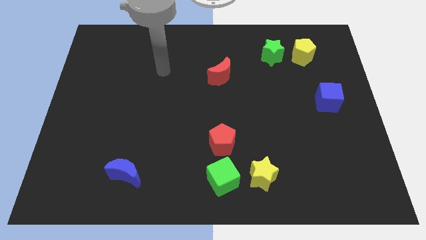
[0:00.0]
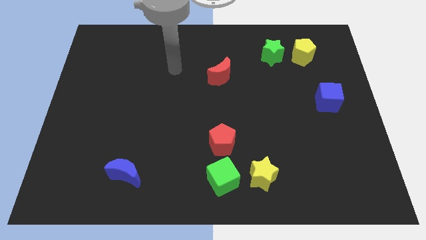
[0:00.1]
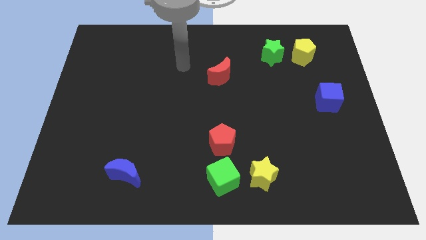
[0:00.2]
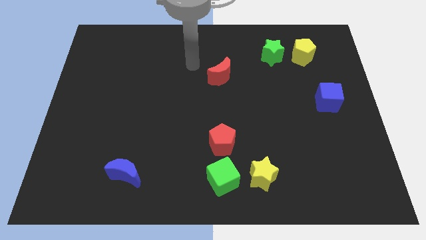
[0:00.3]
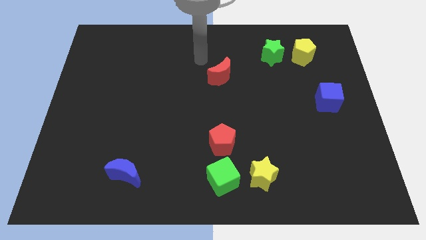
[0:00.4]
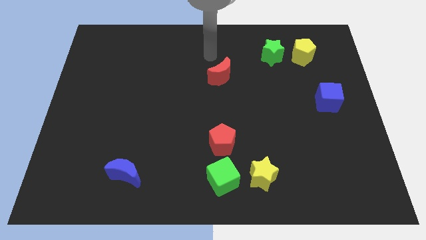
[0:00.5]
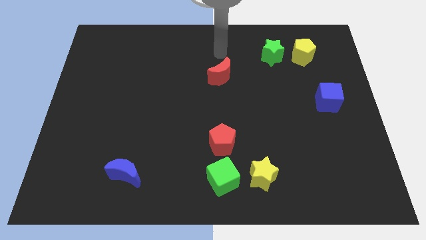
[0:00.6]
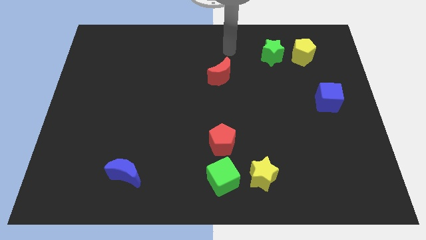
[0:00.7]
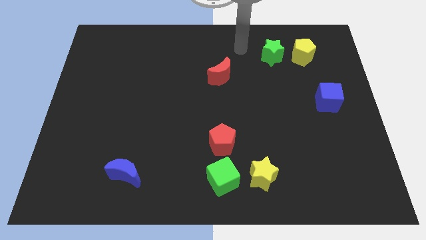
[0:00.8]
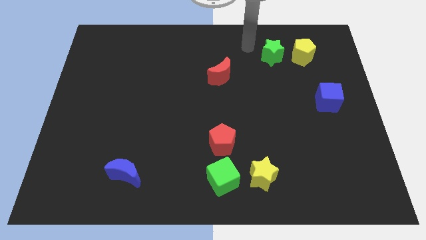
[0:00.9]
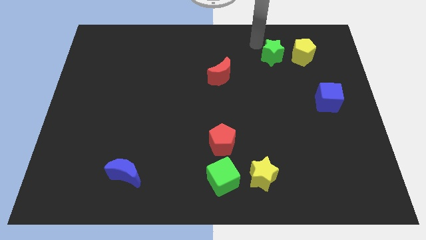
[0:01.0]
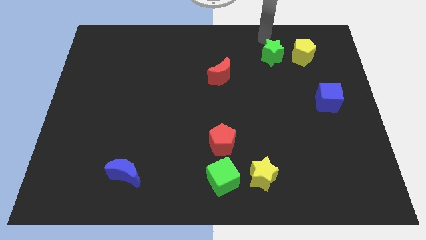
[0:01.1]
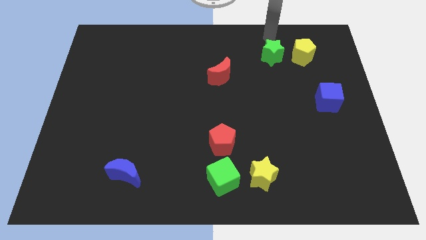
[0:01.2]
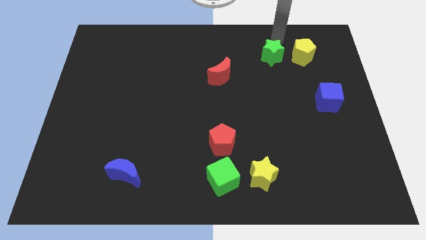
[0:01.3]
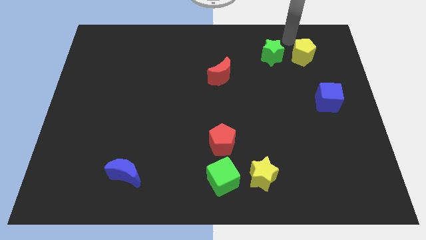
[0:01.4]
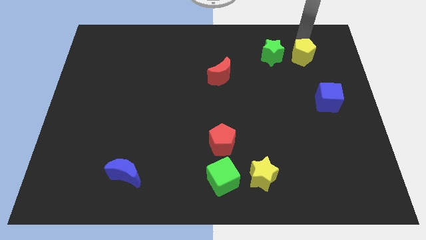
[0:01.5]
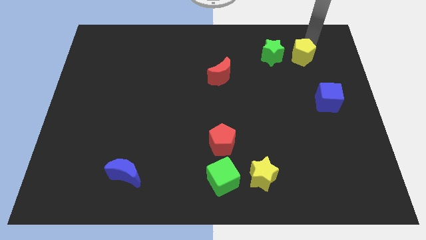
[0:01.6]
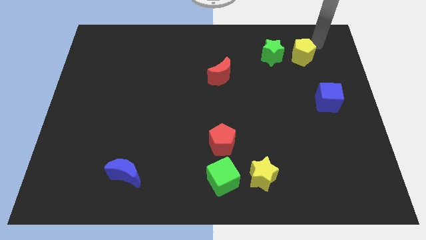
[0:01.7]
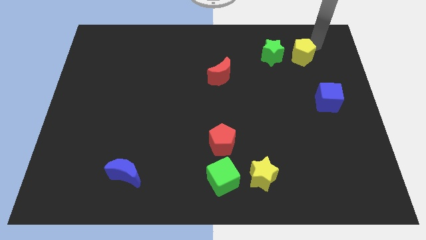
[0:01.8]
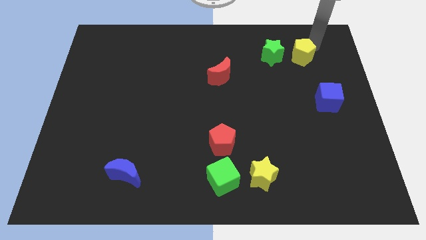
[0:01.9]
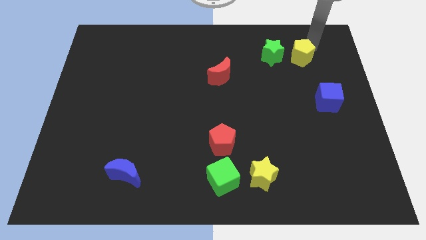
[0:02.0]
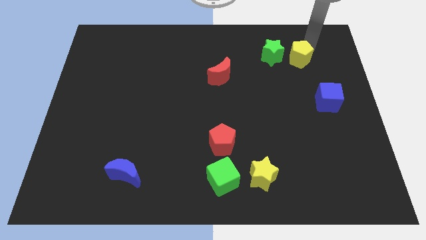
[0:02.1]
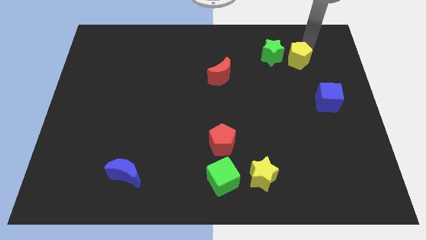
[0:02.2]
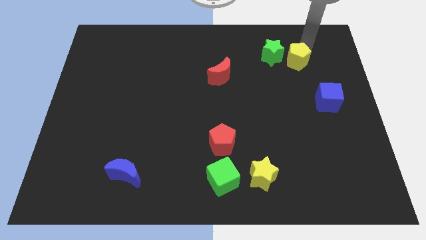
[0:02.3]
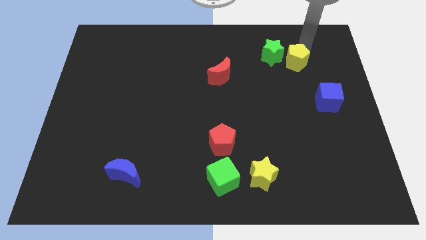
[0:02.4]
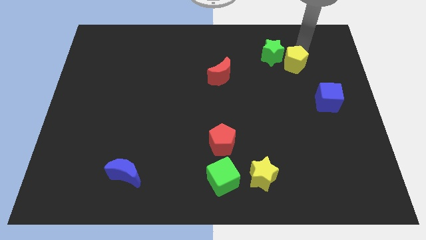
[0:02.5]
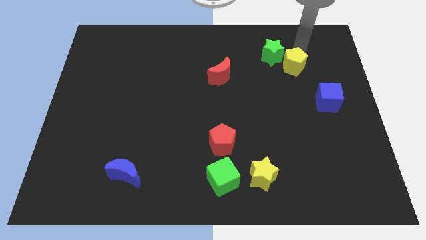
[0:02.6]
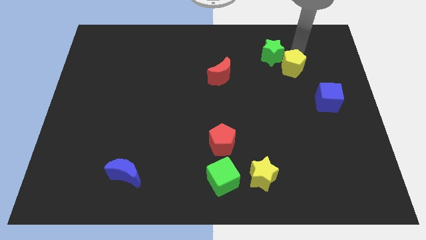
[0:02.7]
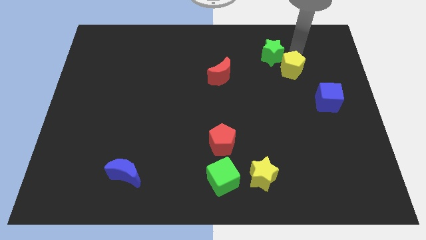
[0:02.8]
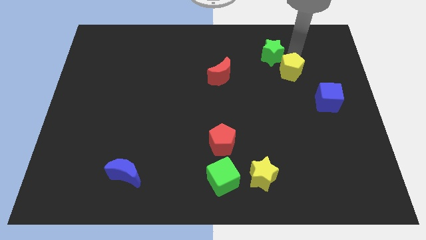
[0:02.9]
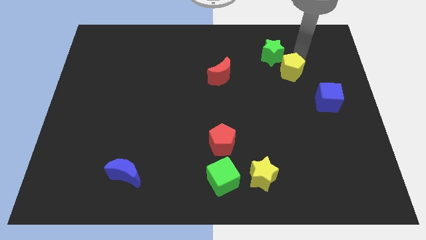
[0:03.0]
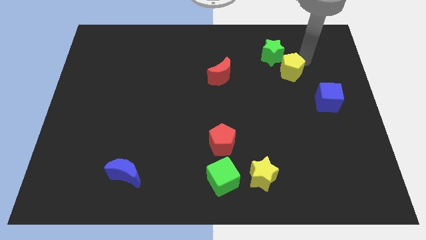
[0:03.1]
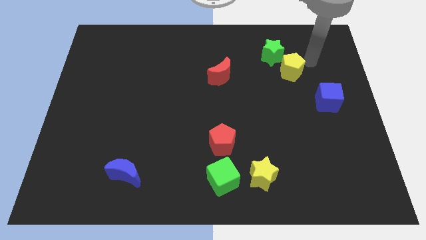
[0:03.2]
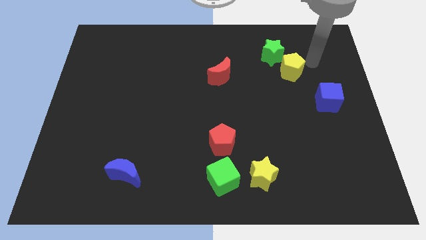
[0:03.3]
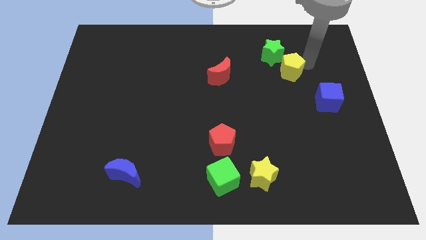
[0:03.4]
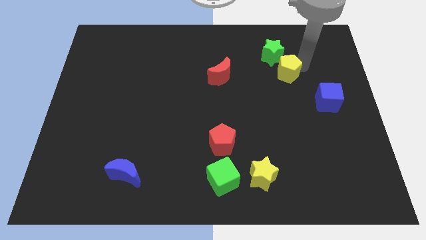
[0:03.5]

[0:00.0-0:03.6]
push the yellow pentagon downwards and then to the left somewhat

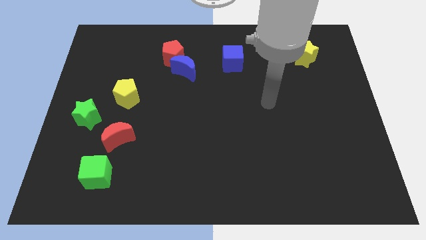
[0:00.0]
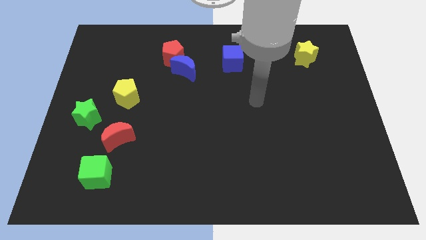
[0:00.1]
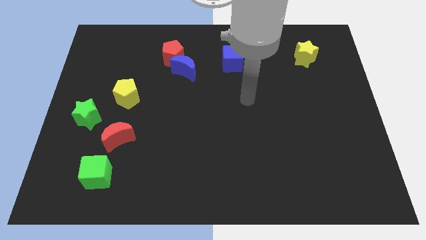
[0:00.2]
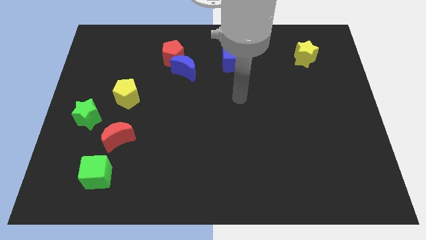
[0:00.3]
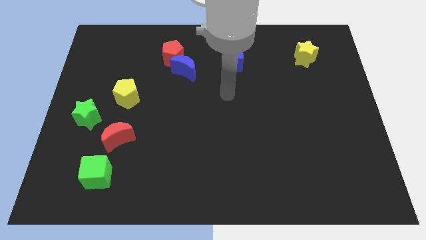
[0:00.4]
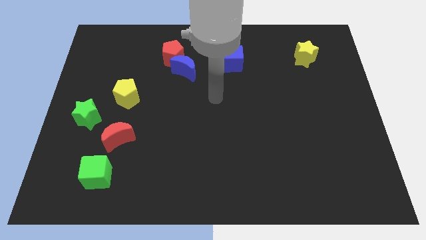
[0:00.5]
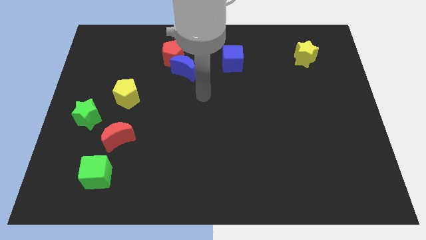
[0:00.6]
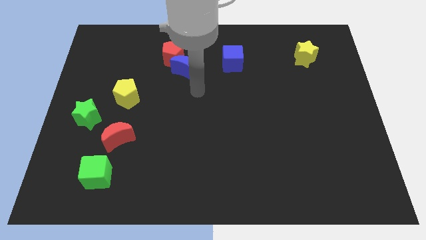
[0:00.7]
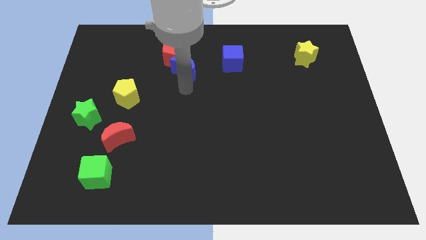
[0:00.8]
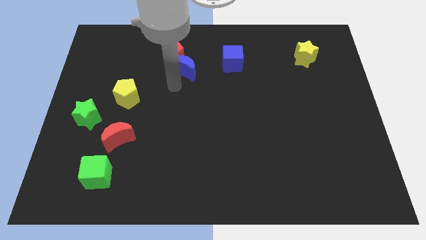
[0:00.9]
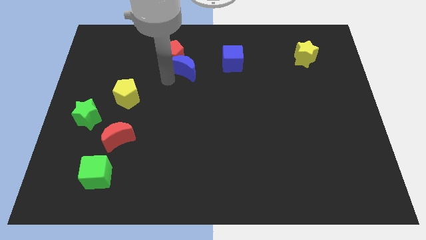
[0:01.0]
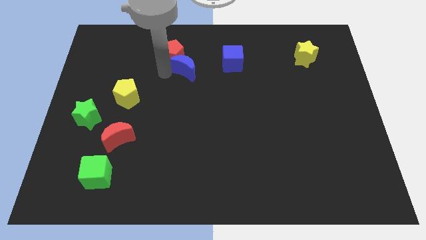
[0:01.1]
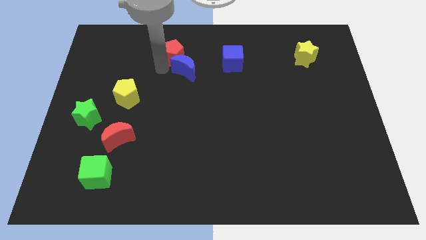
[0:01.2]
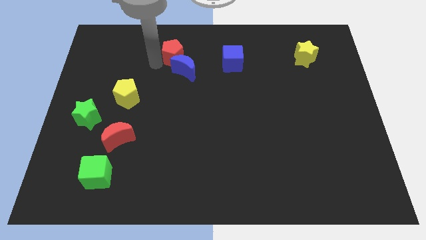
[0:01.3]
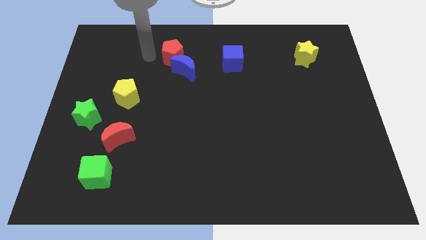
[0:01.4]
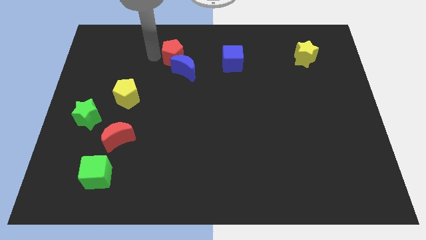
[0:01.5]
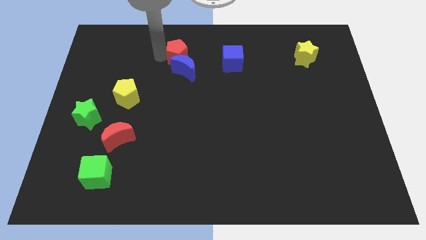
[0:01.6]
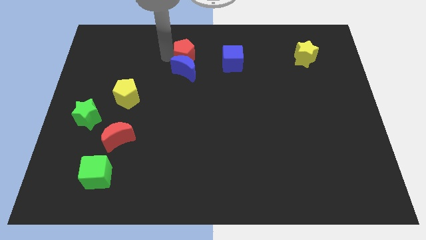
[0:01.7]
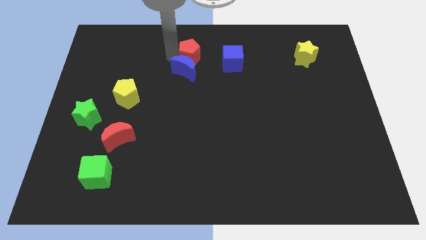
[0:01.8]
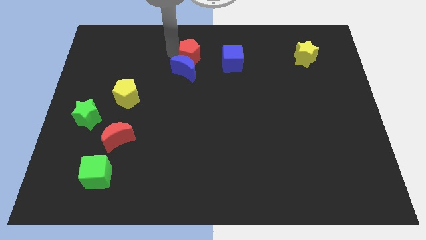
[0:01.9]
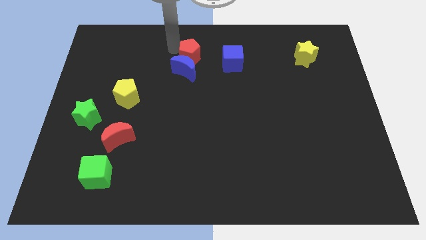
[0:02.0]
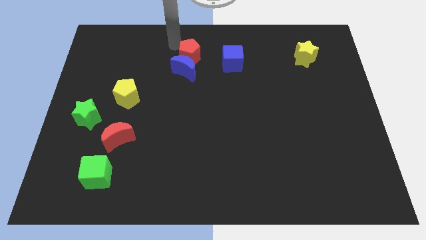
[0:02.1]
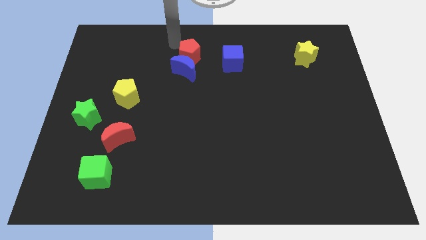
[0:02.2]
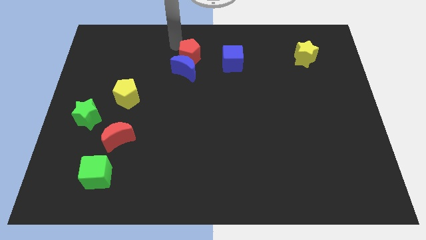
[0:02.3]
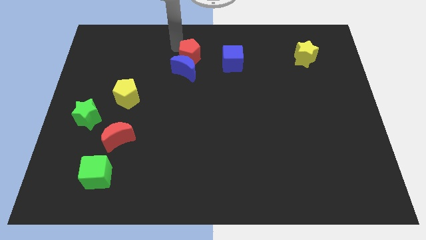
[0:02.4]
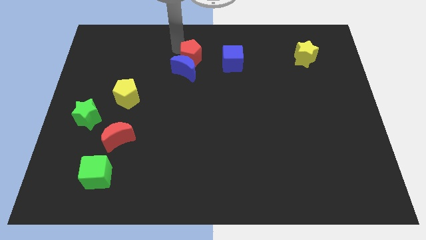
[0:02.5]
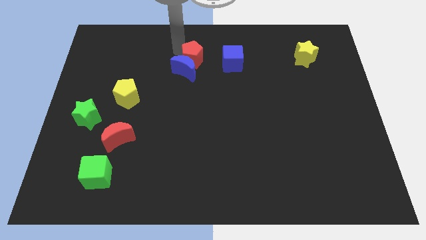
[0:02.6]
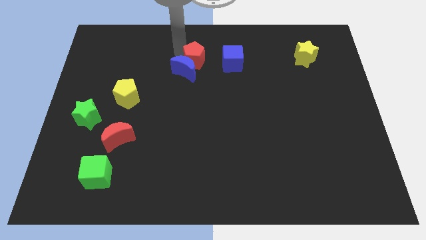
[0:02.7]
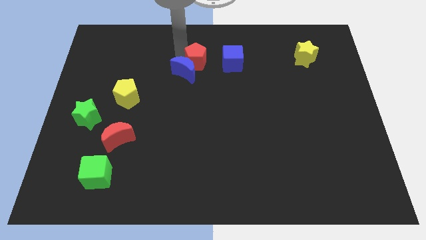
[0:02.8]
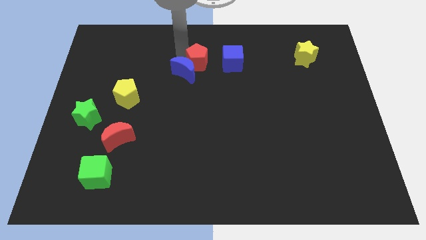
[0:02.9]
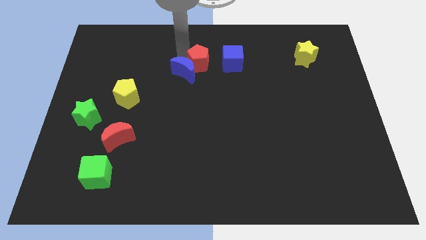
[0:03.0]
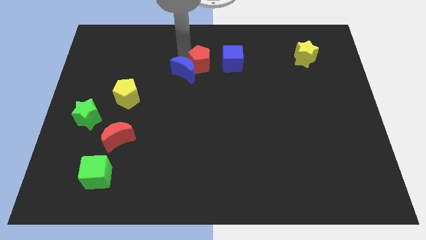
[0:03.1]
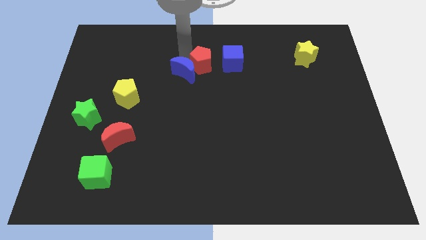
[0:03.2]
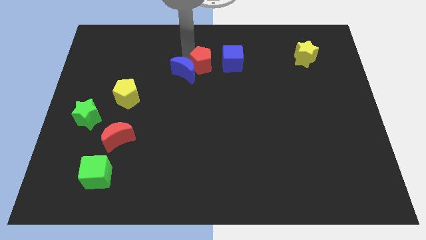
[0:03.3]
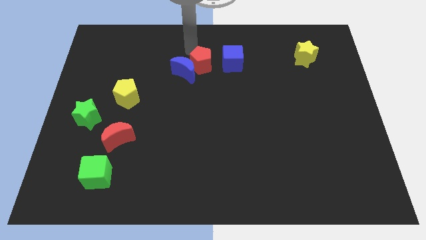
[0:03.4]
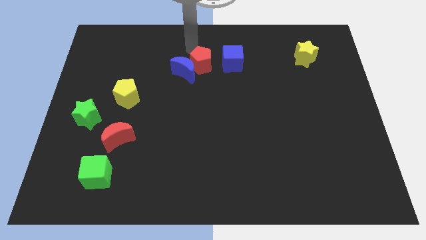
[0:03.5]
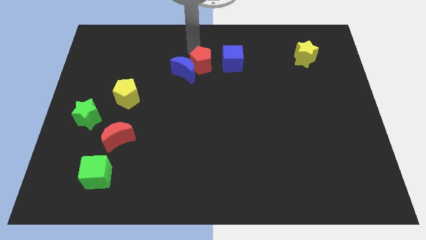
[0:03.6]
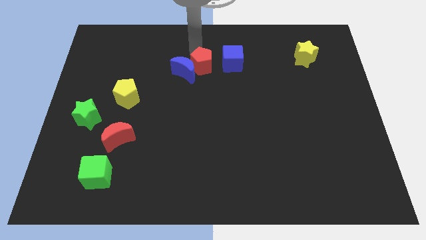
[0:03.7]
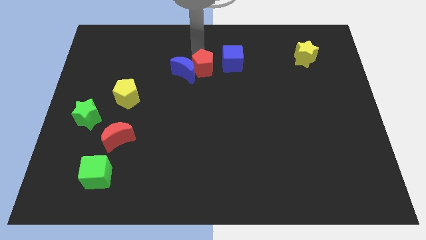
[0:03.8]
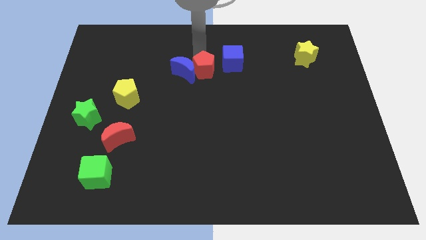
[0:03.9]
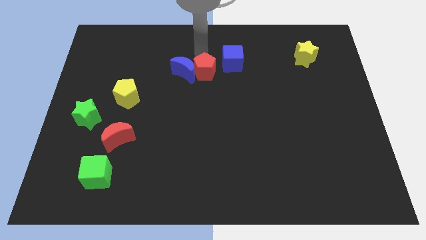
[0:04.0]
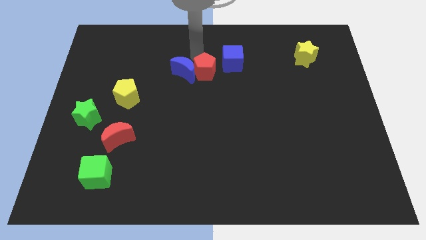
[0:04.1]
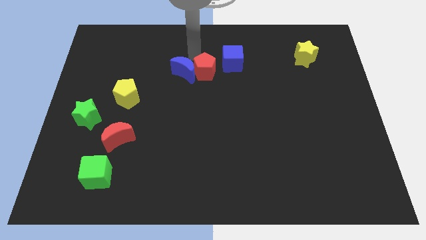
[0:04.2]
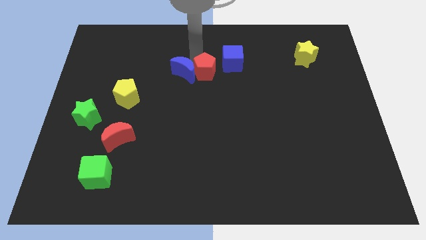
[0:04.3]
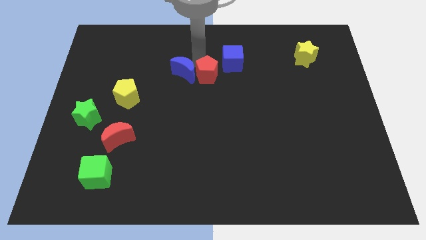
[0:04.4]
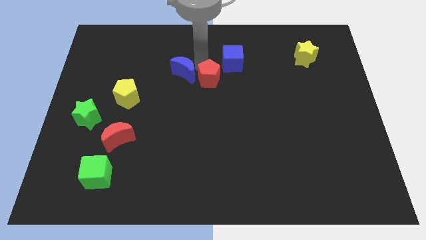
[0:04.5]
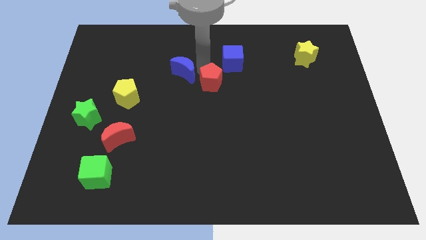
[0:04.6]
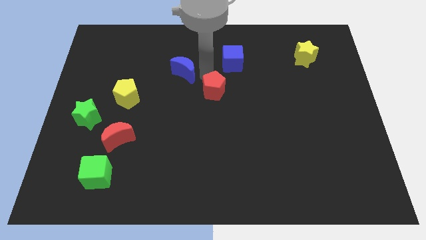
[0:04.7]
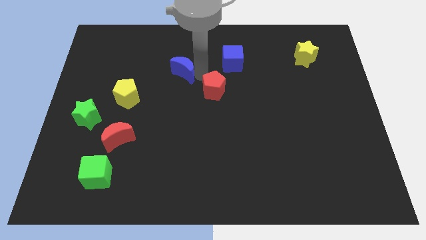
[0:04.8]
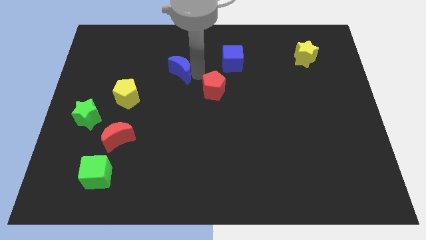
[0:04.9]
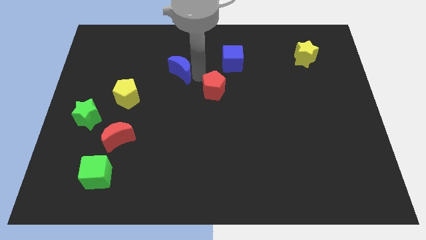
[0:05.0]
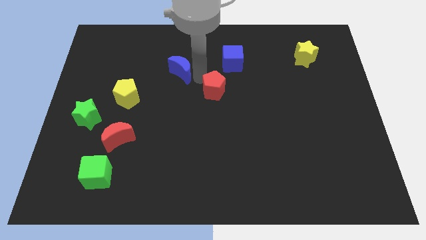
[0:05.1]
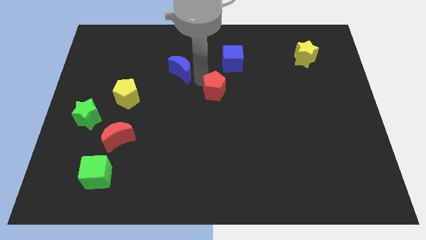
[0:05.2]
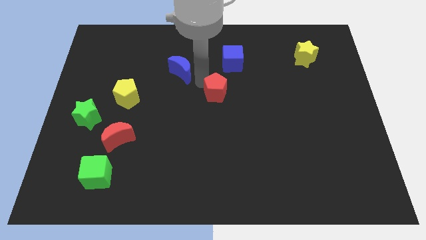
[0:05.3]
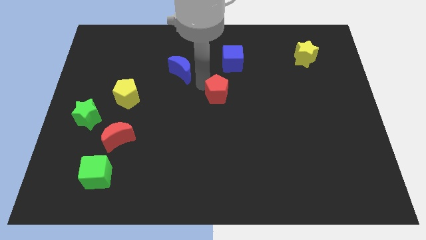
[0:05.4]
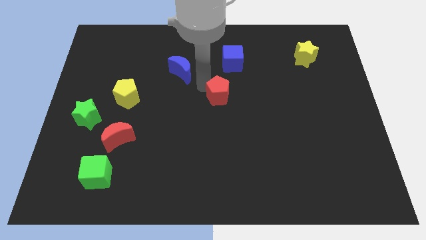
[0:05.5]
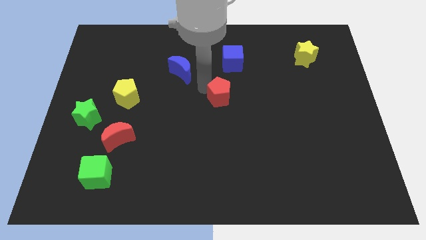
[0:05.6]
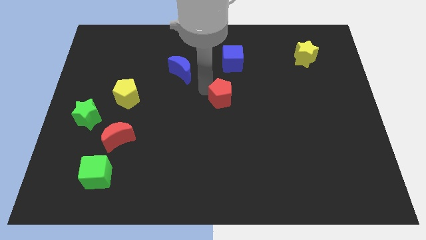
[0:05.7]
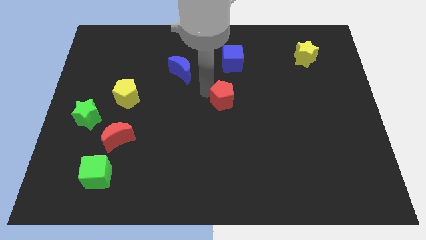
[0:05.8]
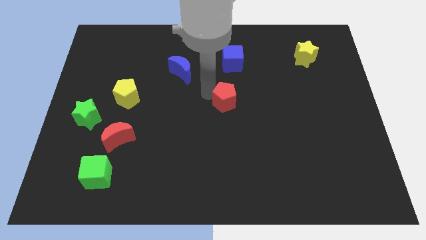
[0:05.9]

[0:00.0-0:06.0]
move the red pentagon down and right diagonally
